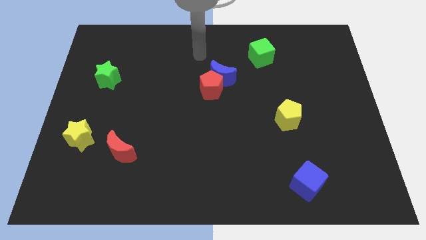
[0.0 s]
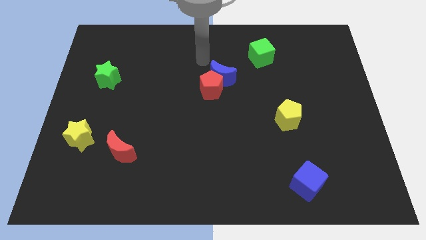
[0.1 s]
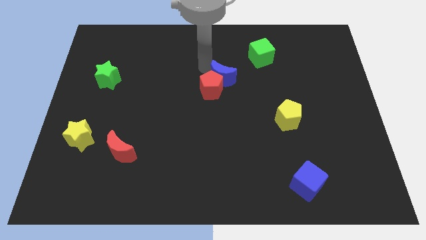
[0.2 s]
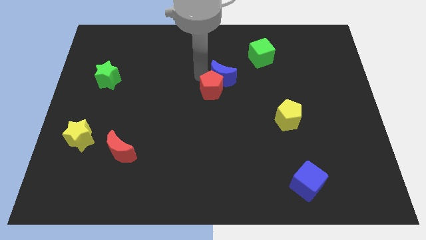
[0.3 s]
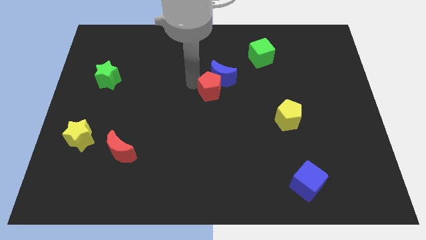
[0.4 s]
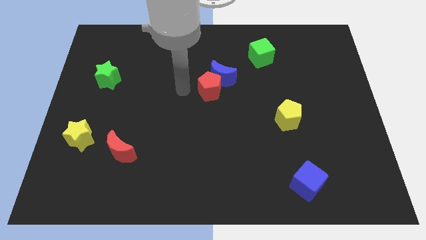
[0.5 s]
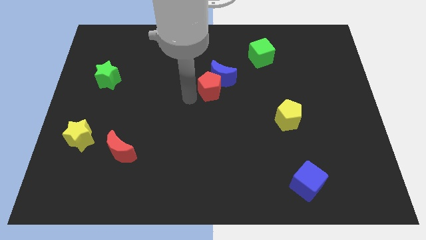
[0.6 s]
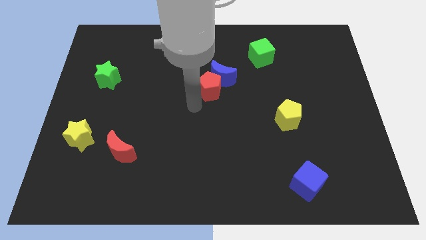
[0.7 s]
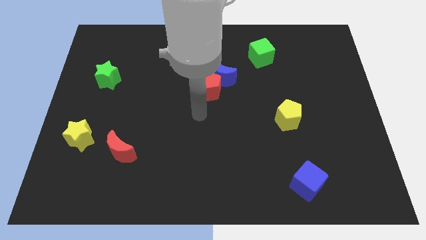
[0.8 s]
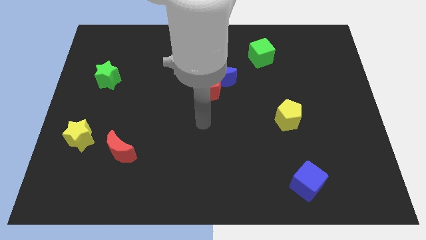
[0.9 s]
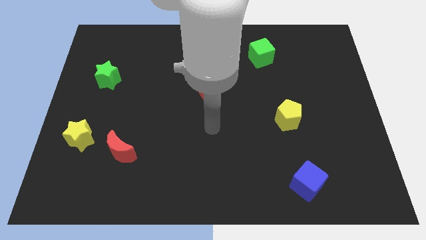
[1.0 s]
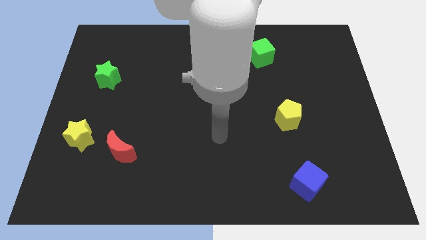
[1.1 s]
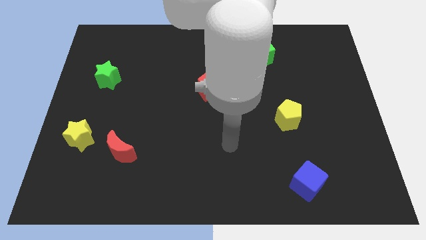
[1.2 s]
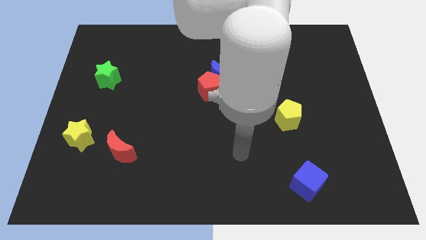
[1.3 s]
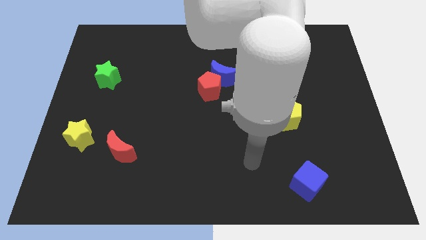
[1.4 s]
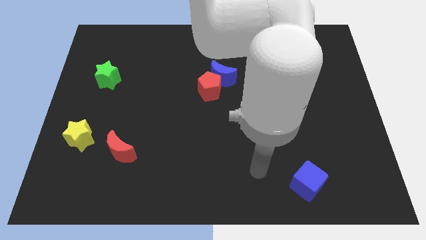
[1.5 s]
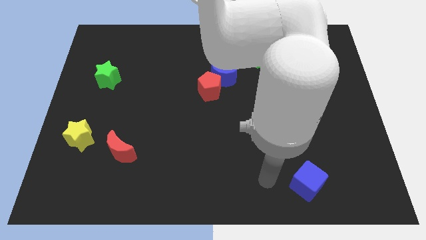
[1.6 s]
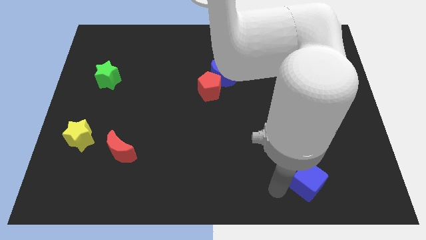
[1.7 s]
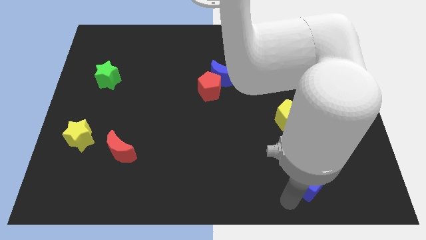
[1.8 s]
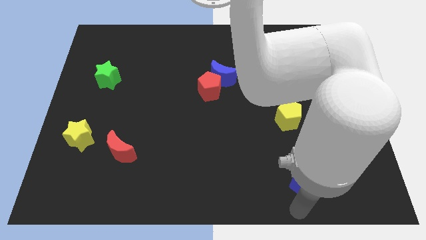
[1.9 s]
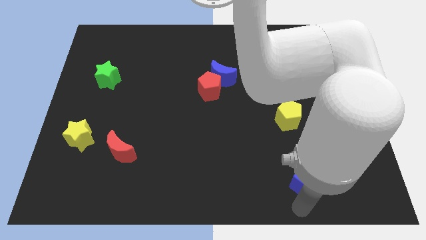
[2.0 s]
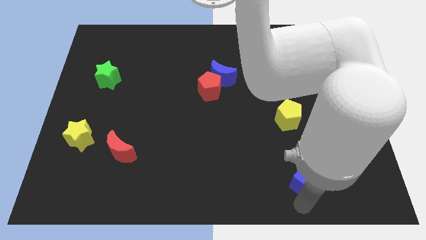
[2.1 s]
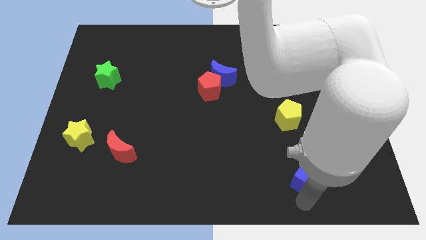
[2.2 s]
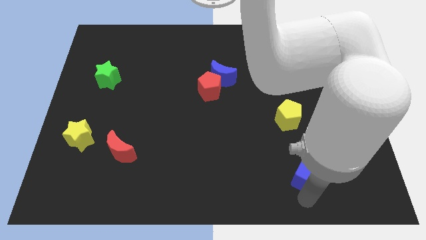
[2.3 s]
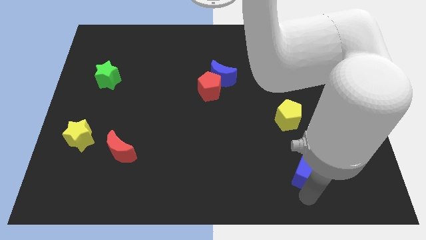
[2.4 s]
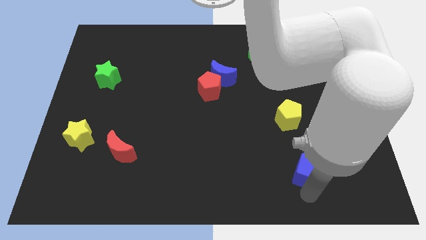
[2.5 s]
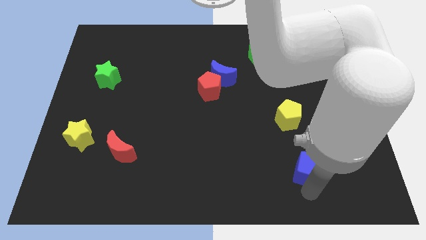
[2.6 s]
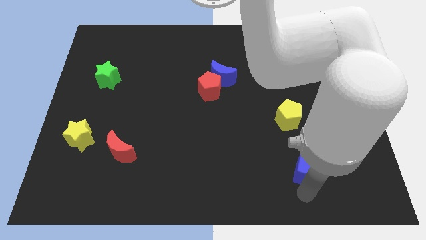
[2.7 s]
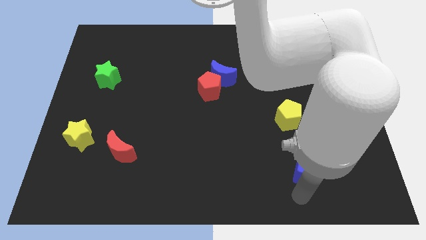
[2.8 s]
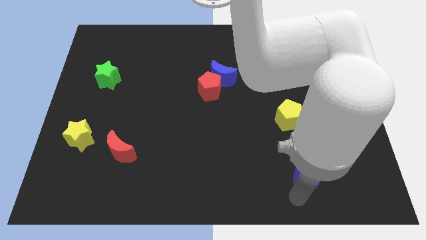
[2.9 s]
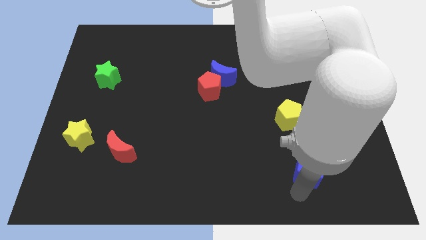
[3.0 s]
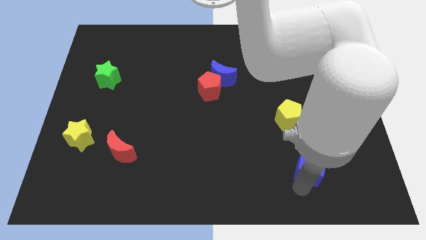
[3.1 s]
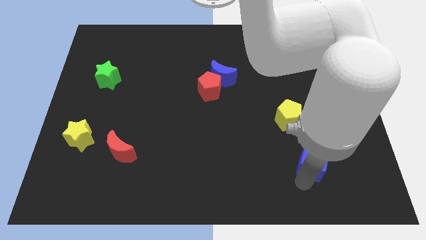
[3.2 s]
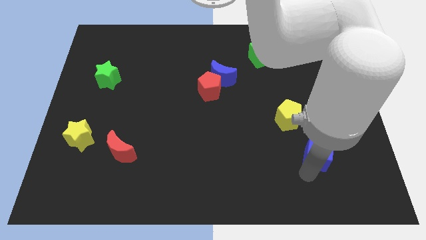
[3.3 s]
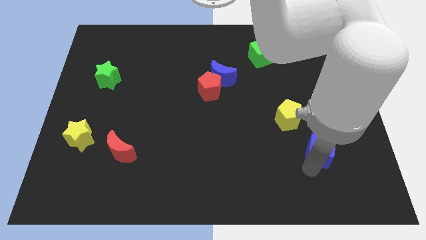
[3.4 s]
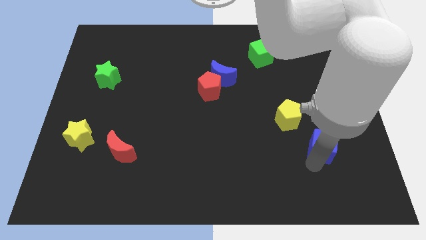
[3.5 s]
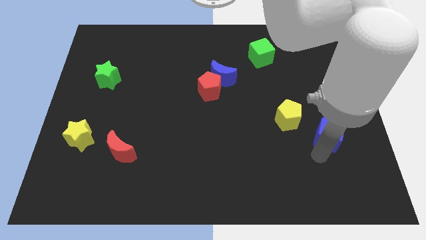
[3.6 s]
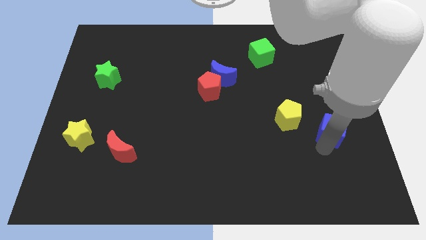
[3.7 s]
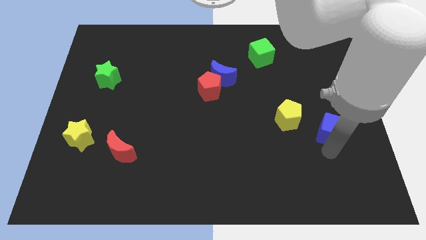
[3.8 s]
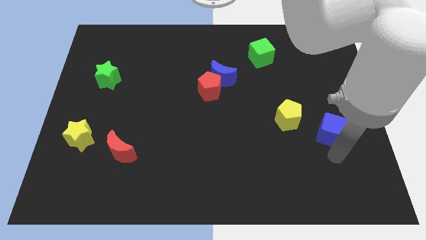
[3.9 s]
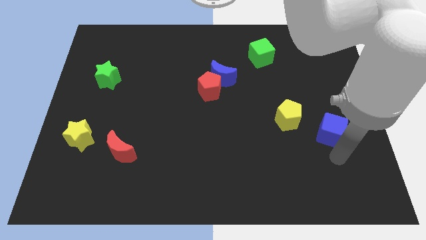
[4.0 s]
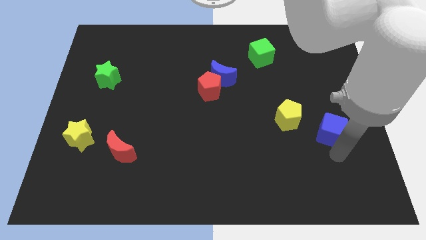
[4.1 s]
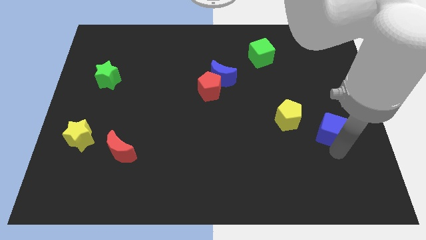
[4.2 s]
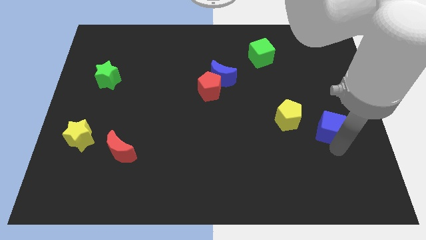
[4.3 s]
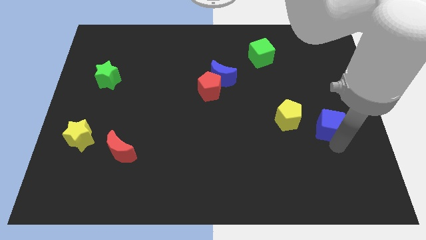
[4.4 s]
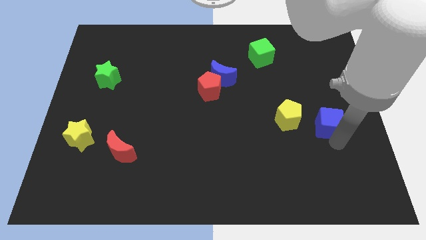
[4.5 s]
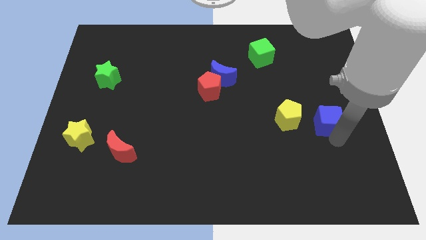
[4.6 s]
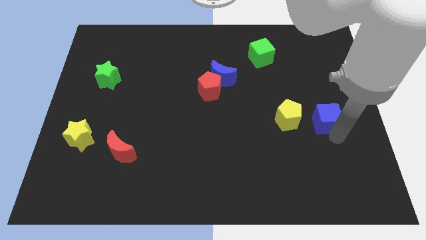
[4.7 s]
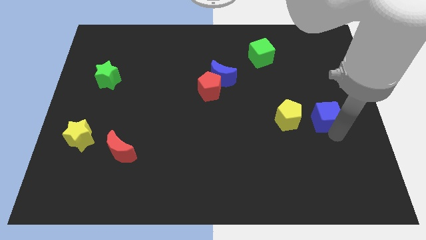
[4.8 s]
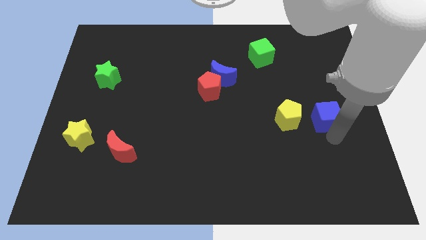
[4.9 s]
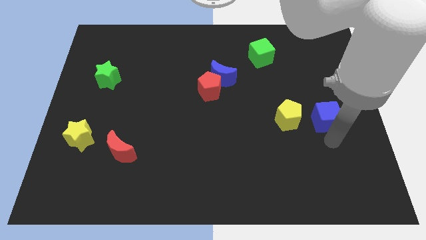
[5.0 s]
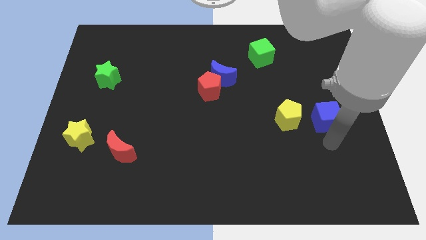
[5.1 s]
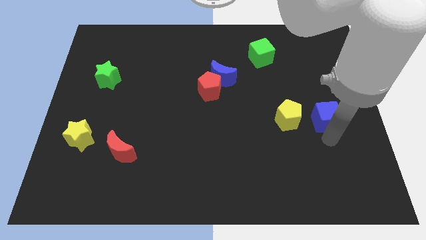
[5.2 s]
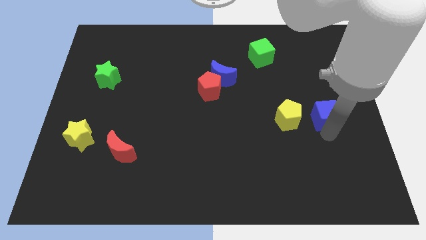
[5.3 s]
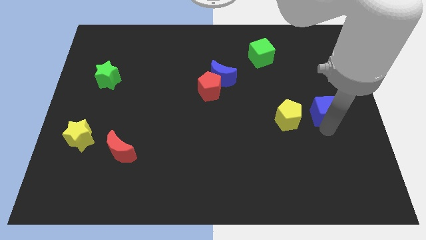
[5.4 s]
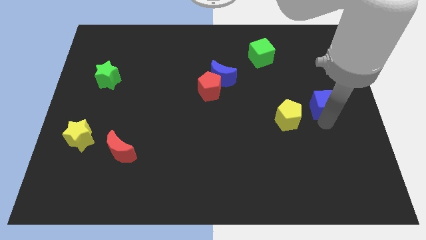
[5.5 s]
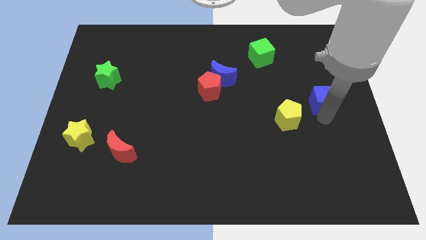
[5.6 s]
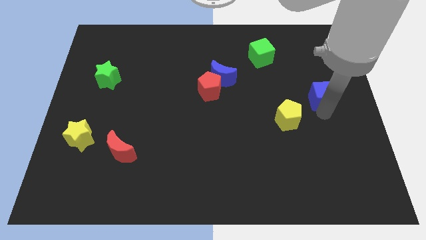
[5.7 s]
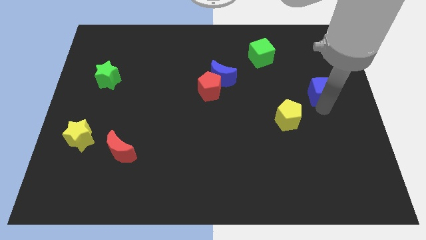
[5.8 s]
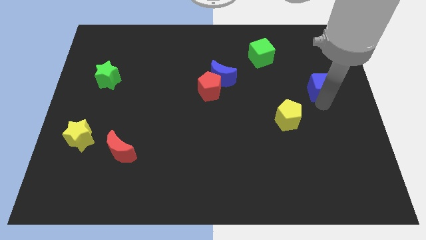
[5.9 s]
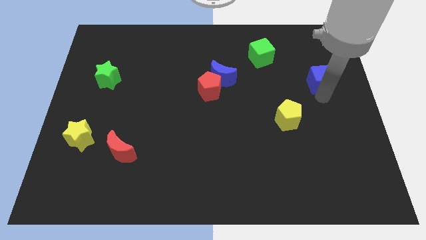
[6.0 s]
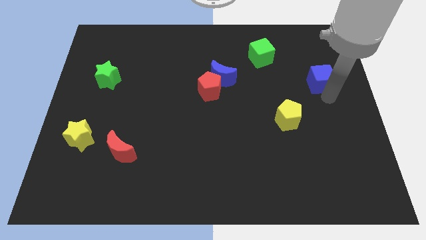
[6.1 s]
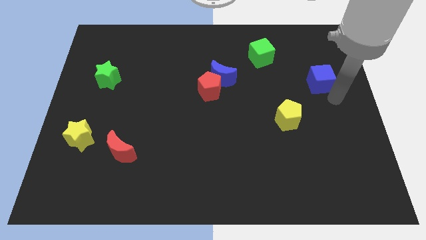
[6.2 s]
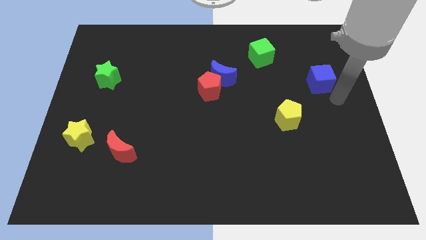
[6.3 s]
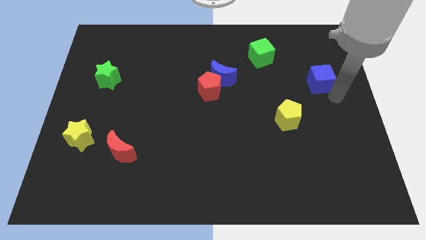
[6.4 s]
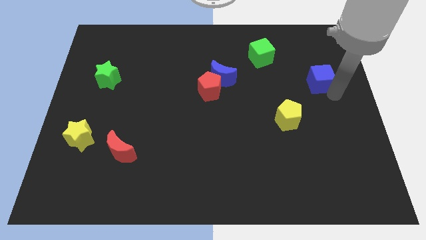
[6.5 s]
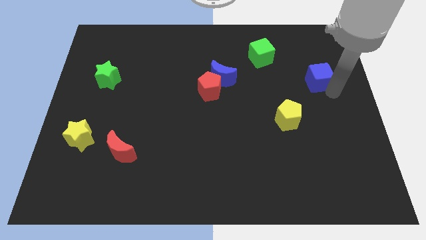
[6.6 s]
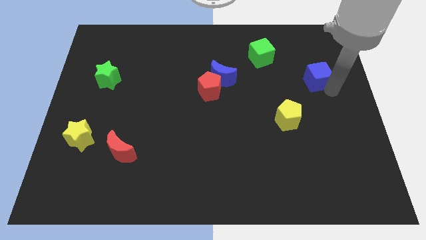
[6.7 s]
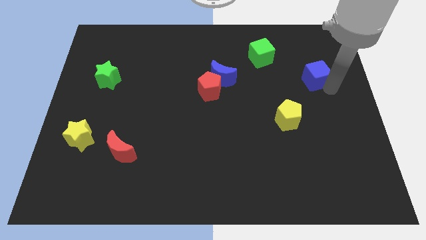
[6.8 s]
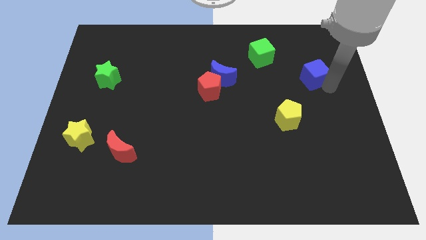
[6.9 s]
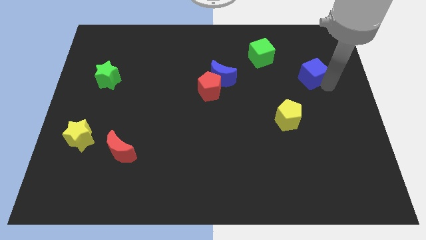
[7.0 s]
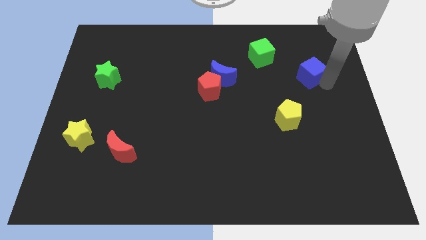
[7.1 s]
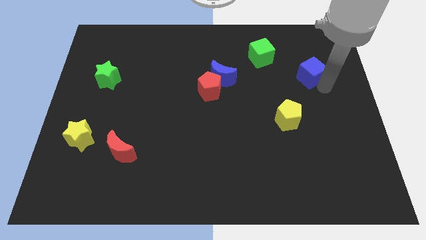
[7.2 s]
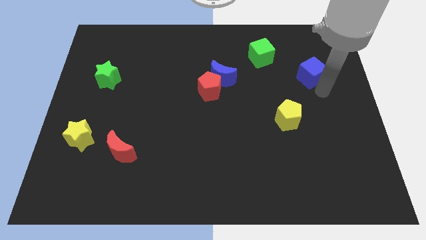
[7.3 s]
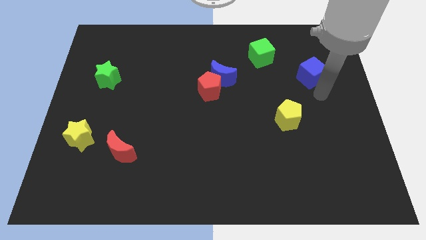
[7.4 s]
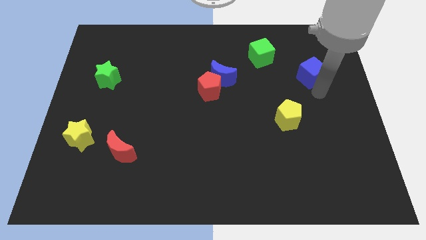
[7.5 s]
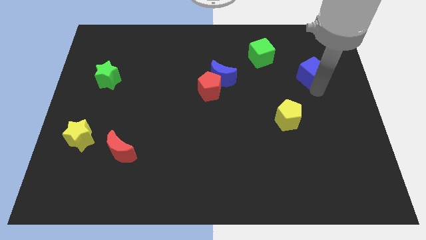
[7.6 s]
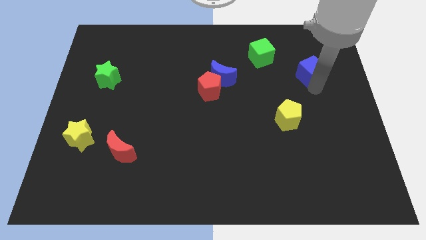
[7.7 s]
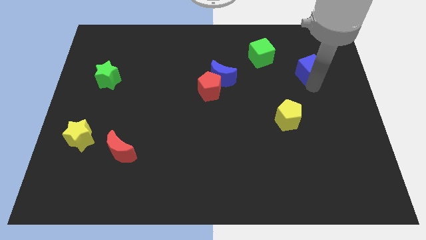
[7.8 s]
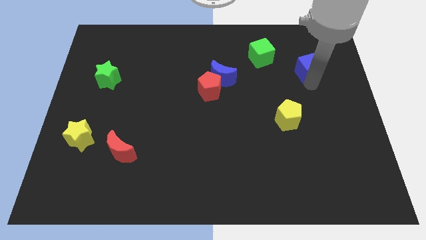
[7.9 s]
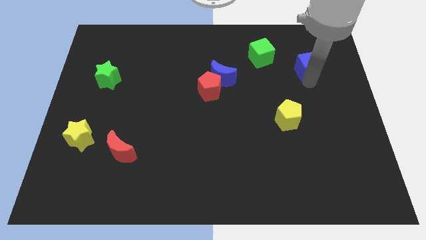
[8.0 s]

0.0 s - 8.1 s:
slide the blue cube just right of the green cube
